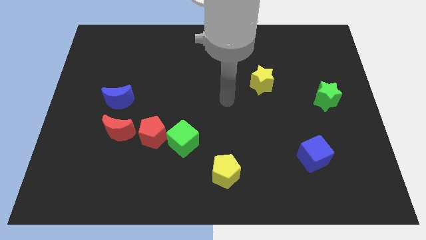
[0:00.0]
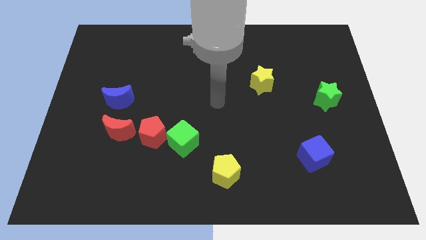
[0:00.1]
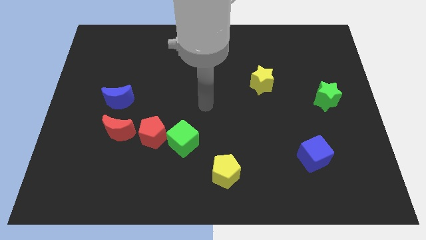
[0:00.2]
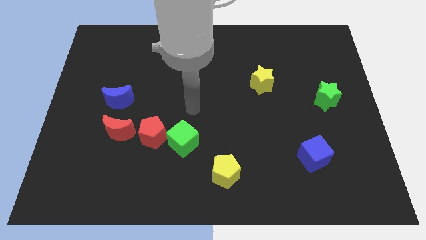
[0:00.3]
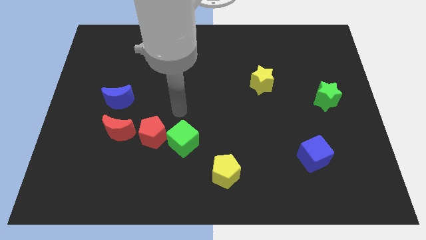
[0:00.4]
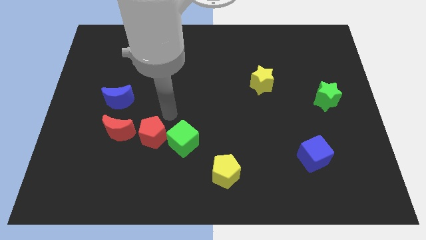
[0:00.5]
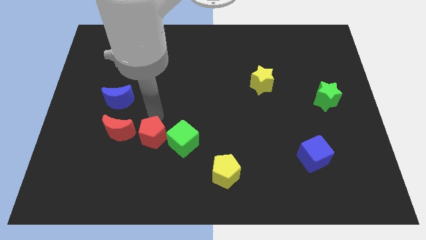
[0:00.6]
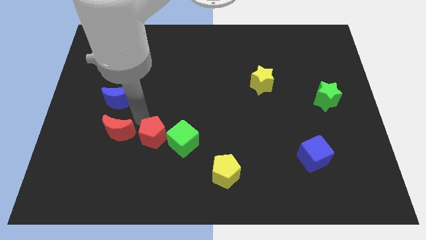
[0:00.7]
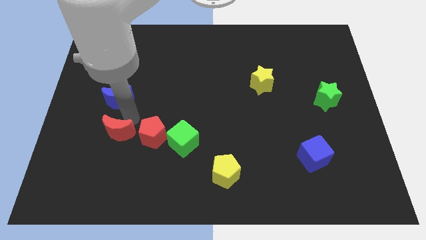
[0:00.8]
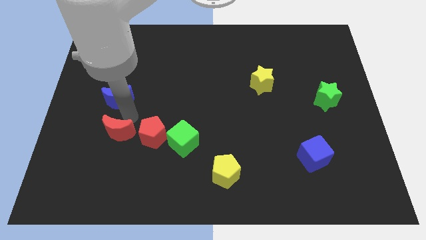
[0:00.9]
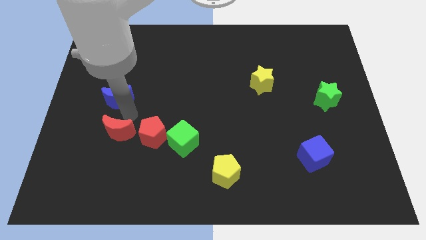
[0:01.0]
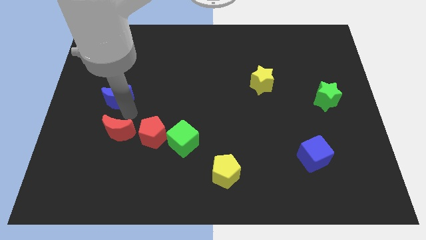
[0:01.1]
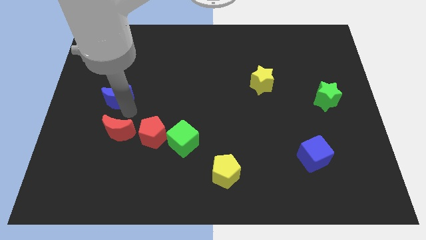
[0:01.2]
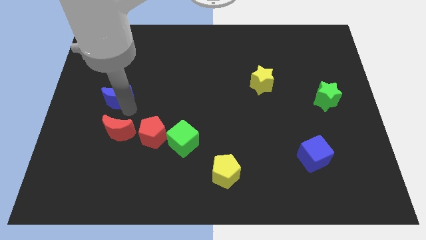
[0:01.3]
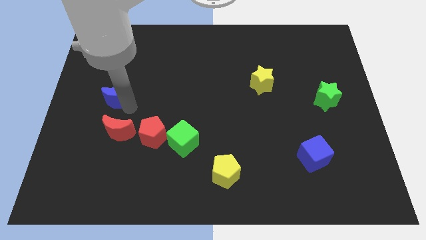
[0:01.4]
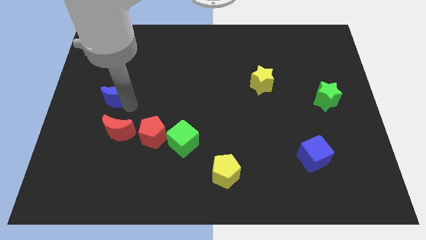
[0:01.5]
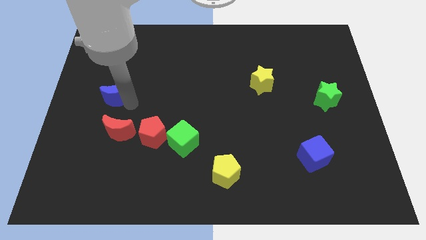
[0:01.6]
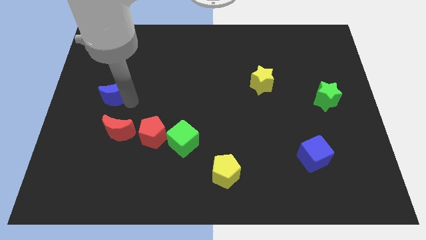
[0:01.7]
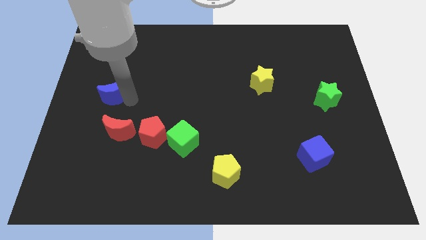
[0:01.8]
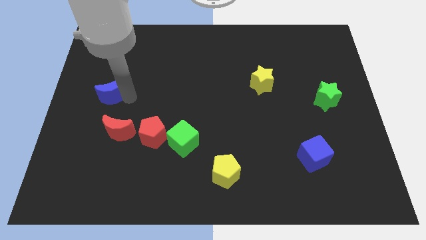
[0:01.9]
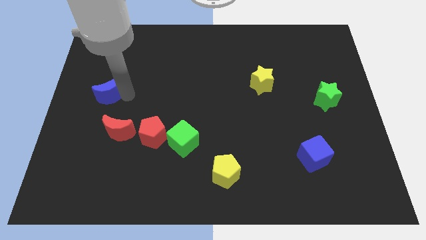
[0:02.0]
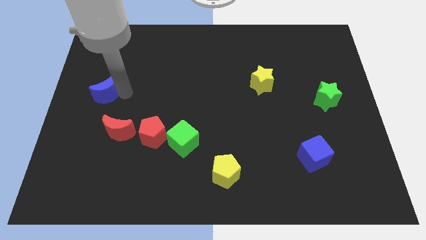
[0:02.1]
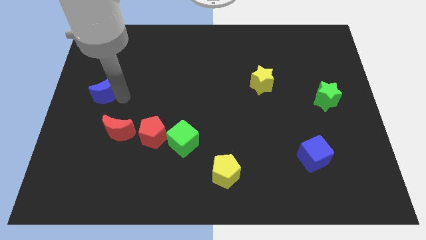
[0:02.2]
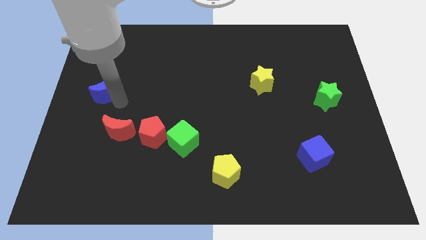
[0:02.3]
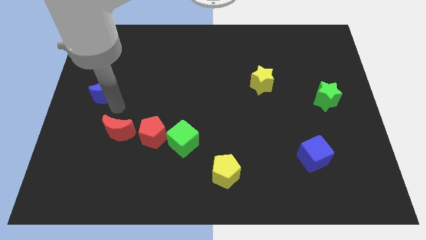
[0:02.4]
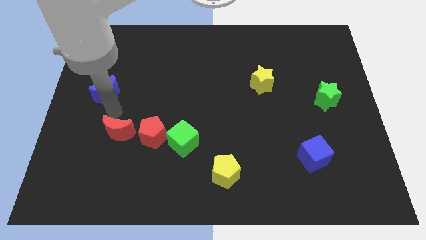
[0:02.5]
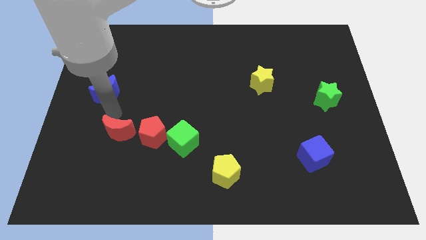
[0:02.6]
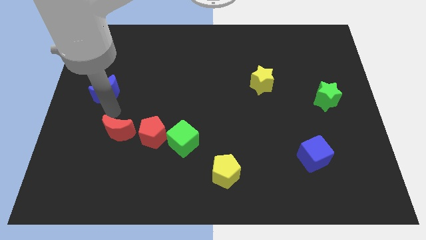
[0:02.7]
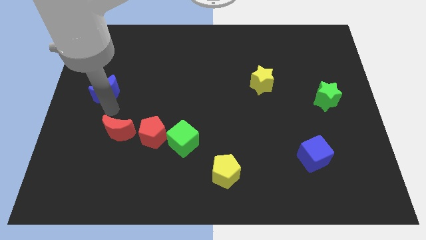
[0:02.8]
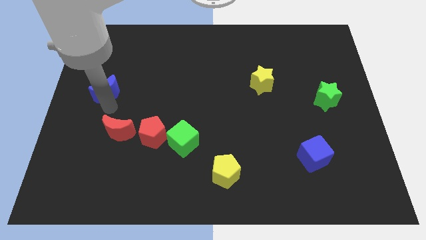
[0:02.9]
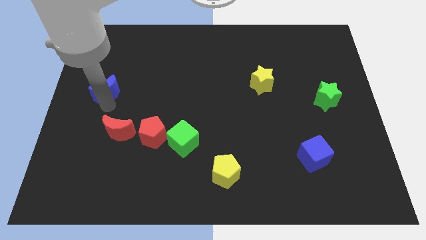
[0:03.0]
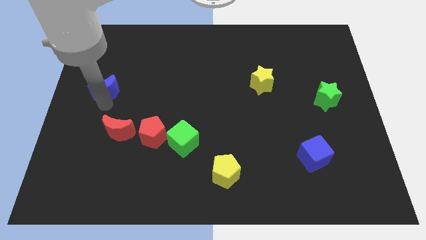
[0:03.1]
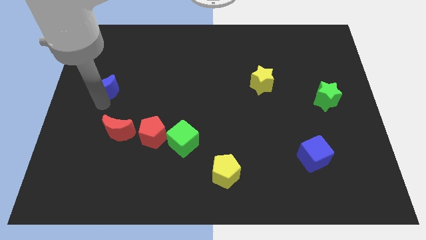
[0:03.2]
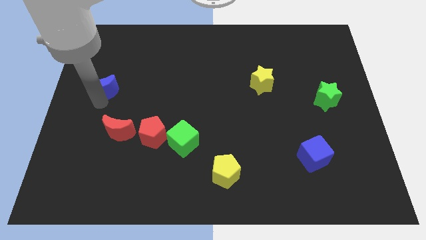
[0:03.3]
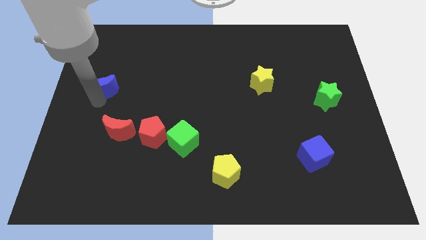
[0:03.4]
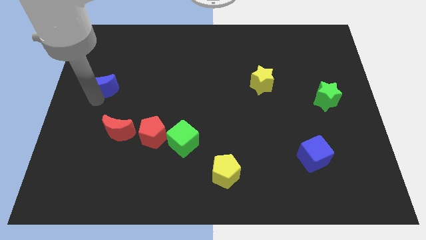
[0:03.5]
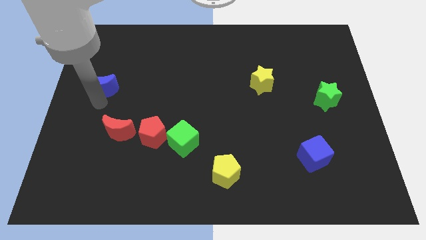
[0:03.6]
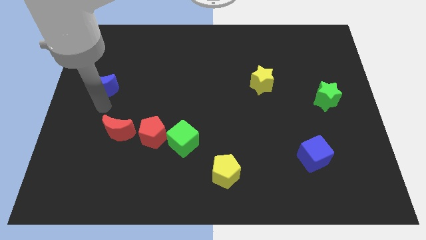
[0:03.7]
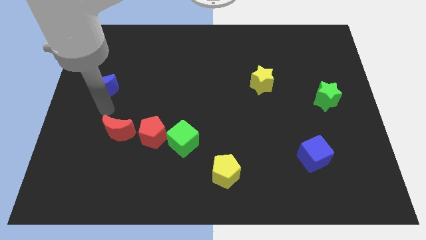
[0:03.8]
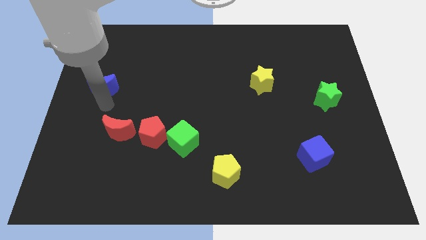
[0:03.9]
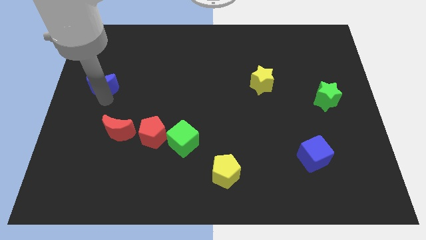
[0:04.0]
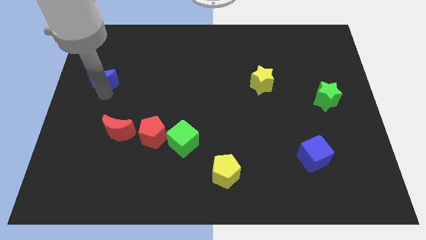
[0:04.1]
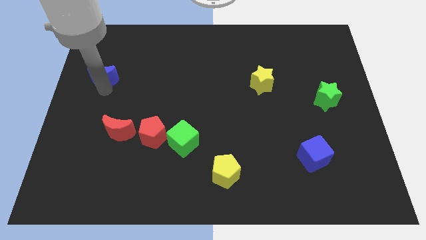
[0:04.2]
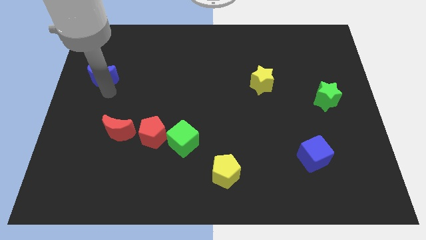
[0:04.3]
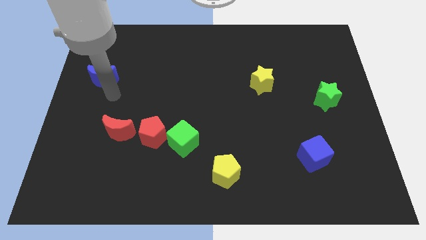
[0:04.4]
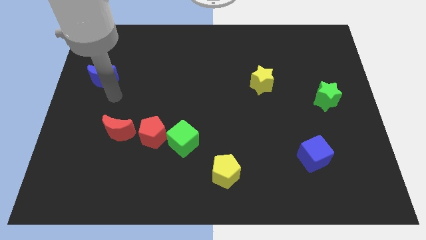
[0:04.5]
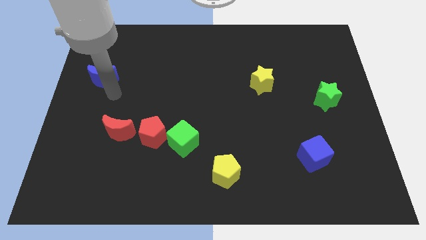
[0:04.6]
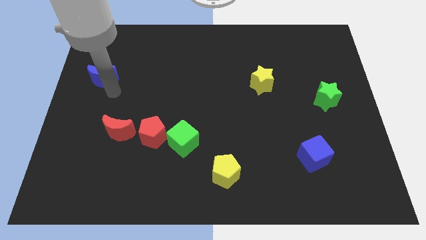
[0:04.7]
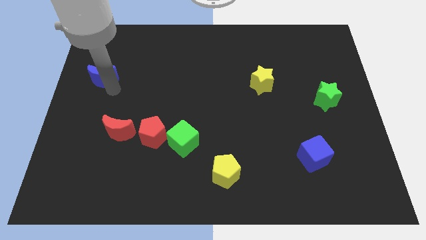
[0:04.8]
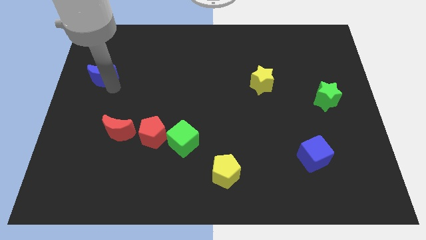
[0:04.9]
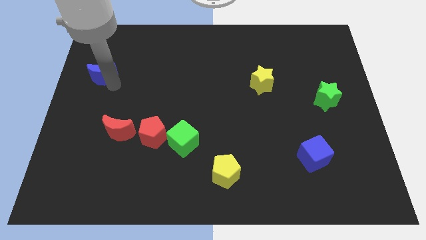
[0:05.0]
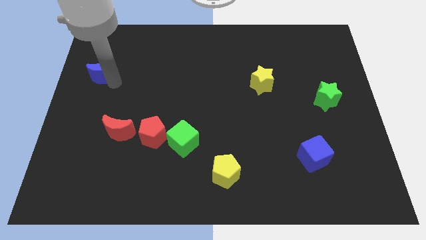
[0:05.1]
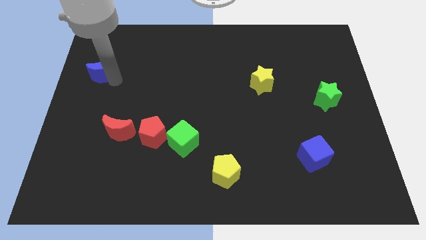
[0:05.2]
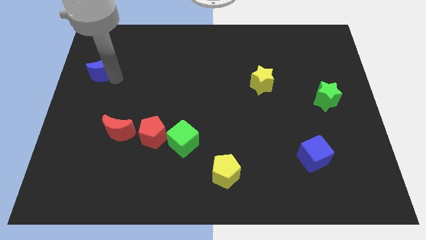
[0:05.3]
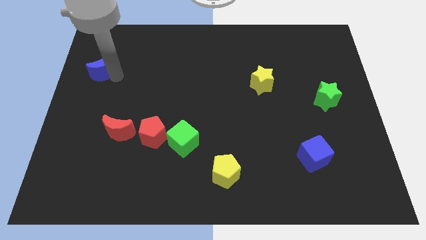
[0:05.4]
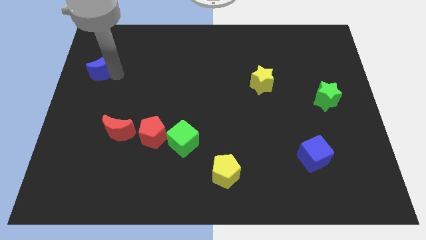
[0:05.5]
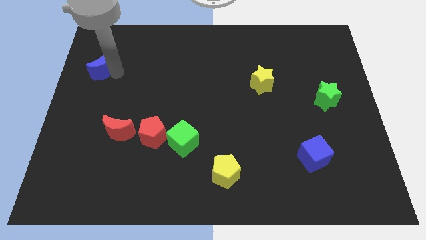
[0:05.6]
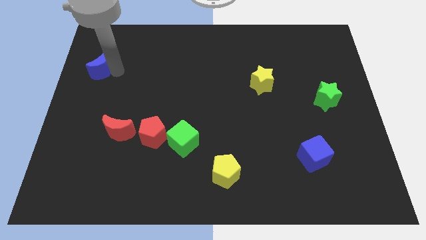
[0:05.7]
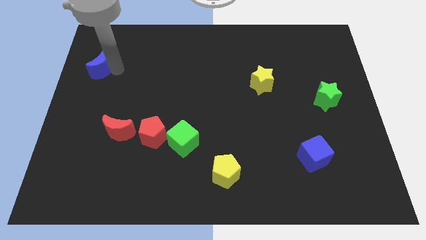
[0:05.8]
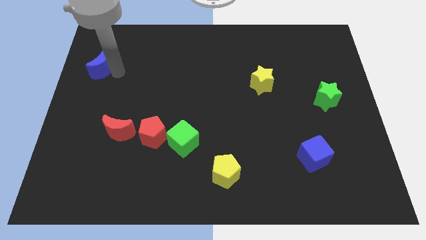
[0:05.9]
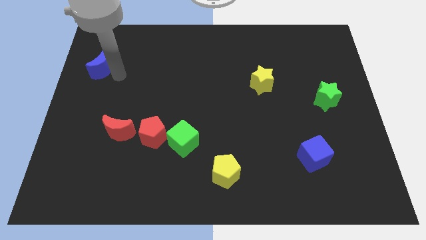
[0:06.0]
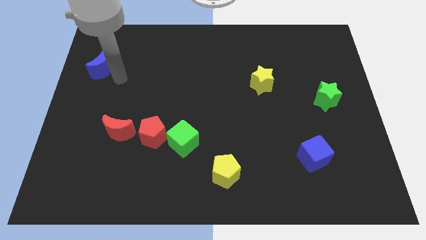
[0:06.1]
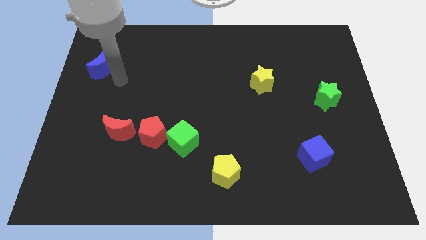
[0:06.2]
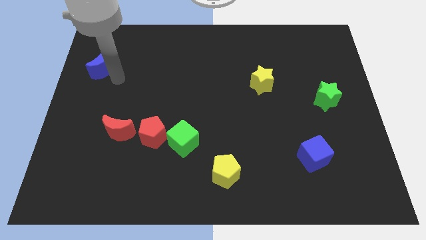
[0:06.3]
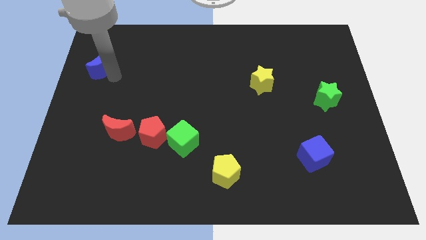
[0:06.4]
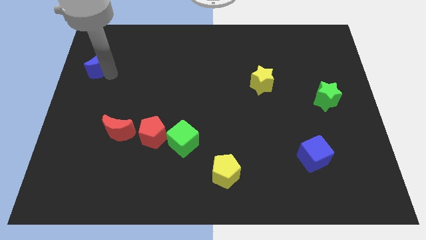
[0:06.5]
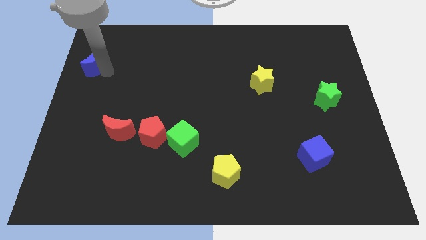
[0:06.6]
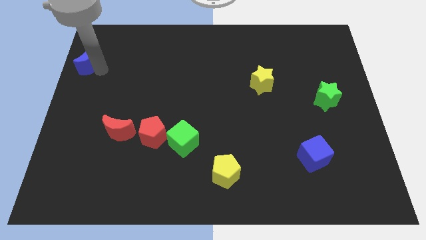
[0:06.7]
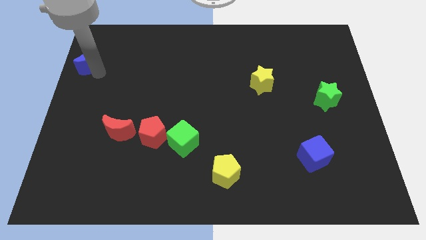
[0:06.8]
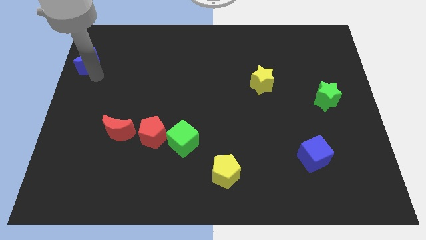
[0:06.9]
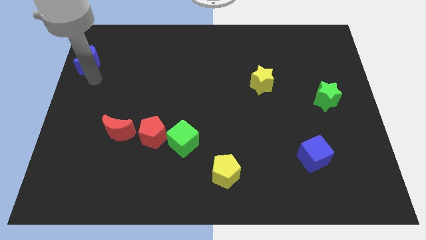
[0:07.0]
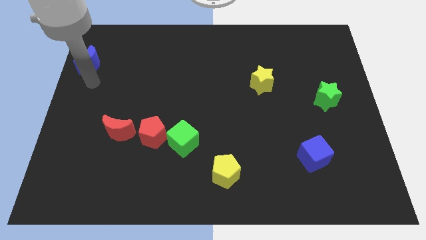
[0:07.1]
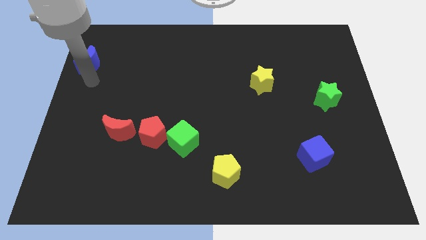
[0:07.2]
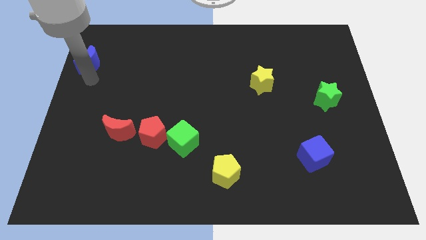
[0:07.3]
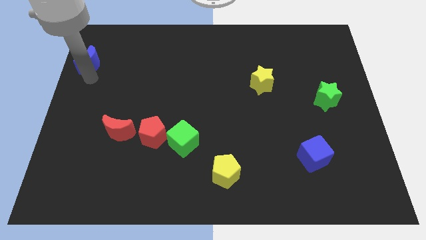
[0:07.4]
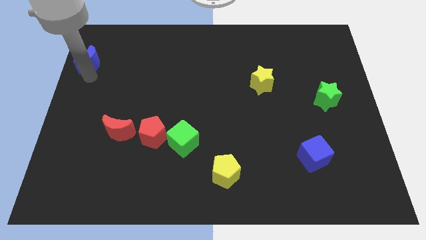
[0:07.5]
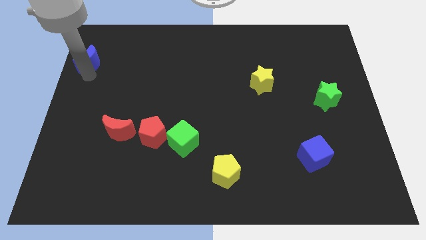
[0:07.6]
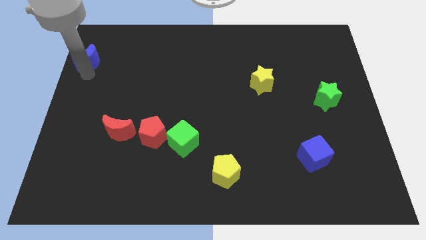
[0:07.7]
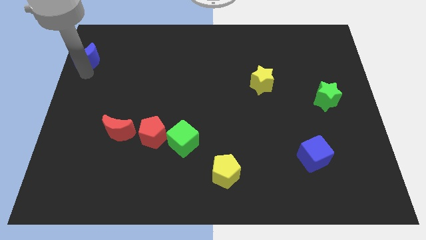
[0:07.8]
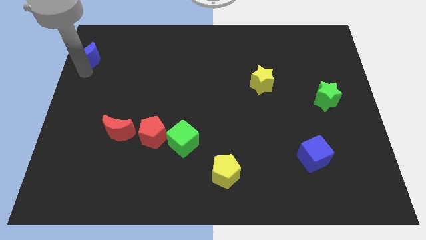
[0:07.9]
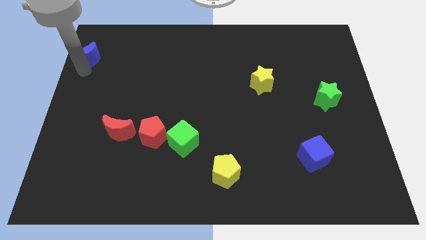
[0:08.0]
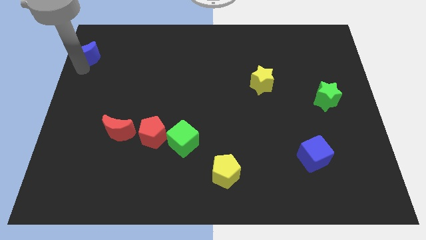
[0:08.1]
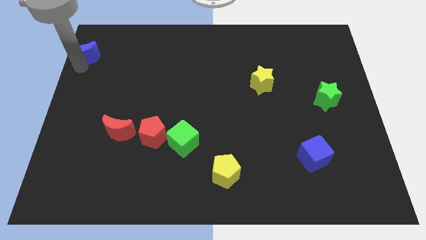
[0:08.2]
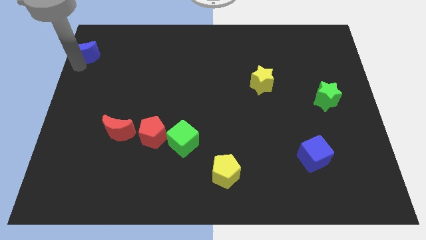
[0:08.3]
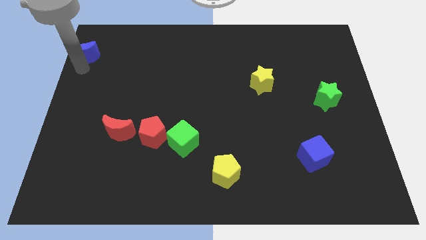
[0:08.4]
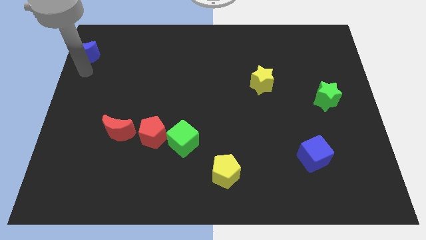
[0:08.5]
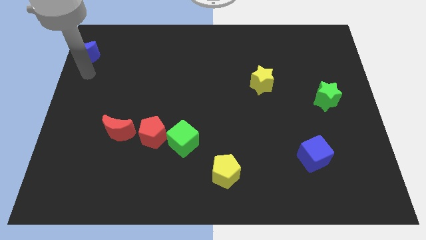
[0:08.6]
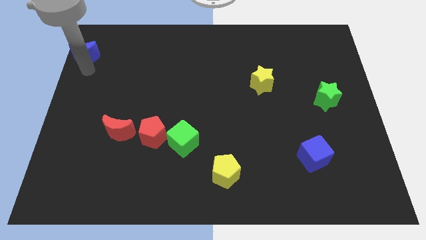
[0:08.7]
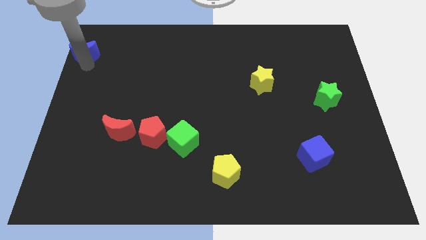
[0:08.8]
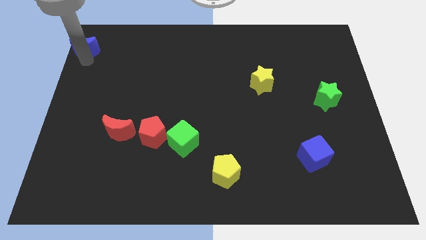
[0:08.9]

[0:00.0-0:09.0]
move the blue moon to the upper left corner
